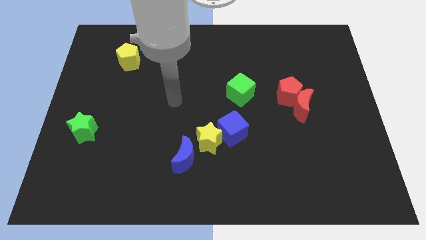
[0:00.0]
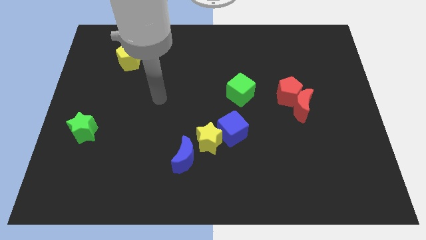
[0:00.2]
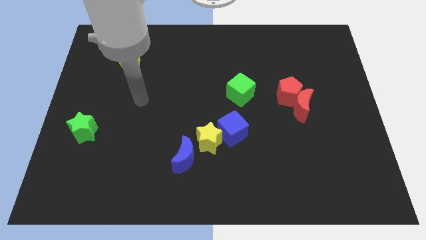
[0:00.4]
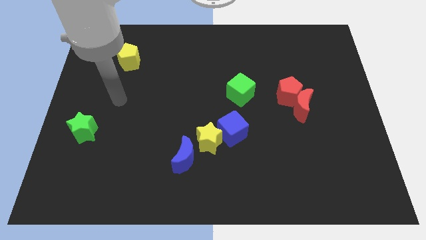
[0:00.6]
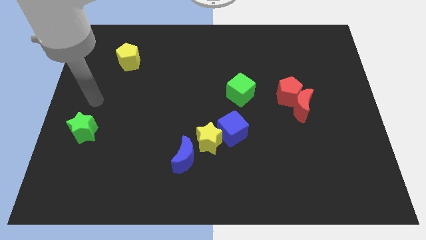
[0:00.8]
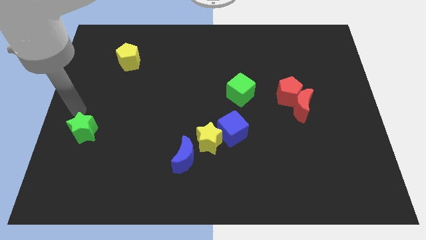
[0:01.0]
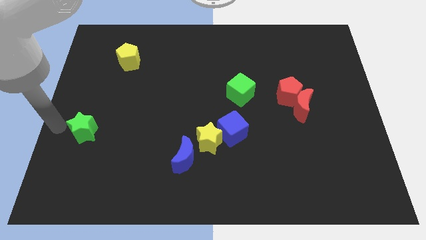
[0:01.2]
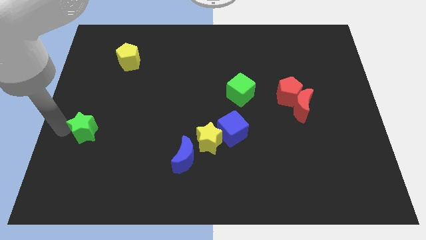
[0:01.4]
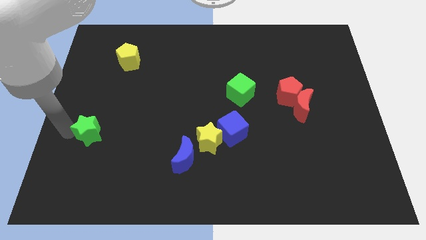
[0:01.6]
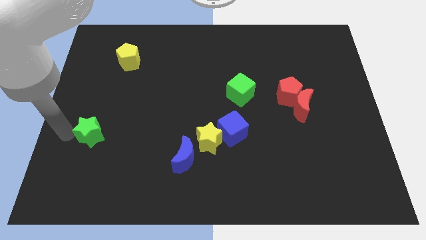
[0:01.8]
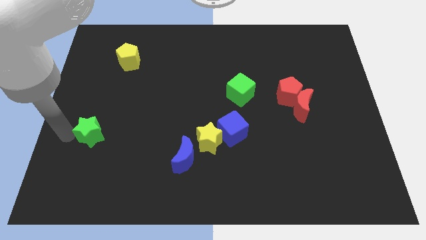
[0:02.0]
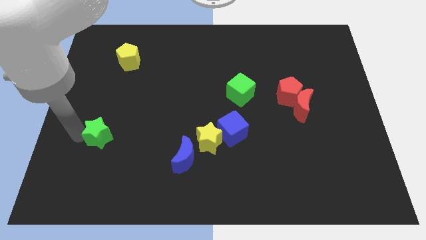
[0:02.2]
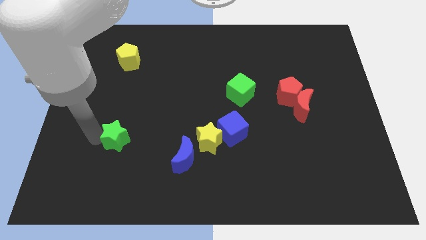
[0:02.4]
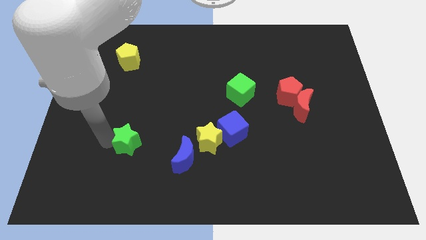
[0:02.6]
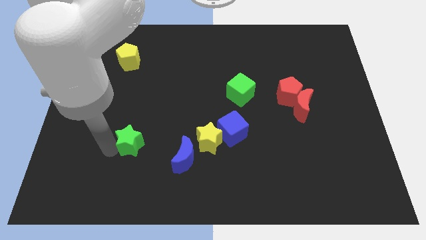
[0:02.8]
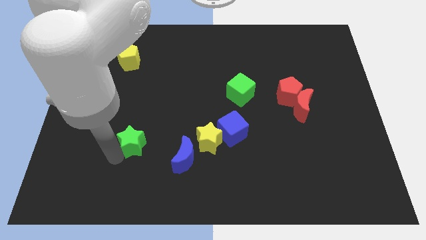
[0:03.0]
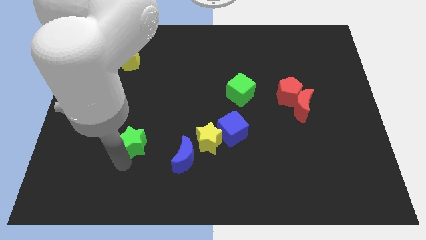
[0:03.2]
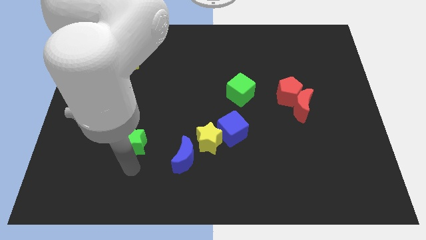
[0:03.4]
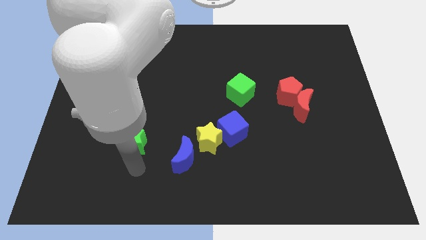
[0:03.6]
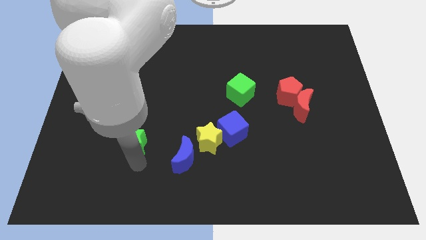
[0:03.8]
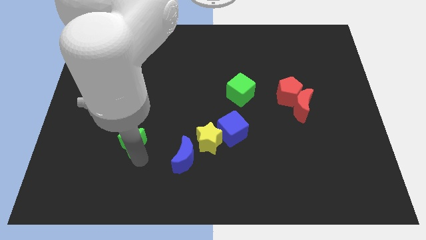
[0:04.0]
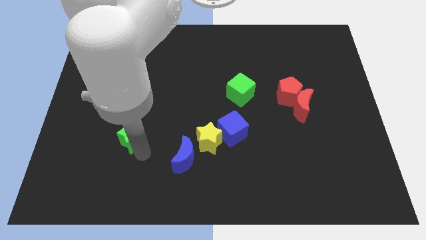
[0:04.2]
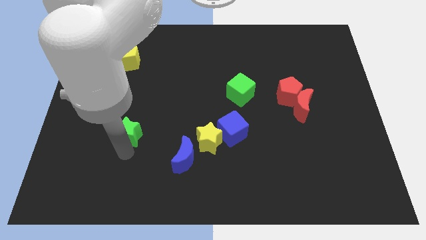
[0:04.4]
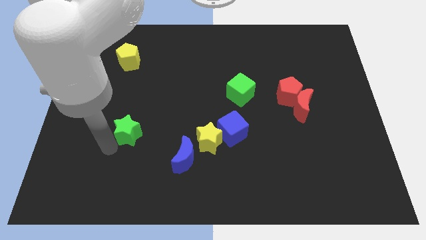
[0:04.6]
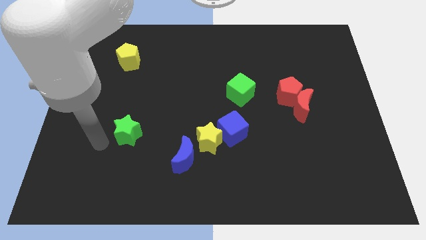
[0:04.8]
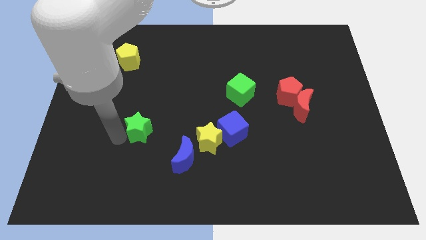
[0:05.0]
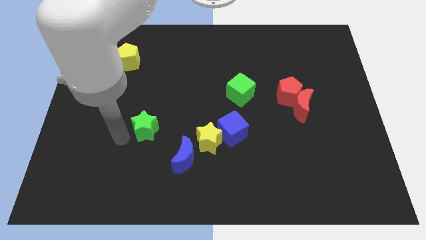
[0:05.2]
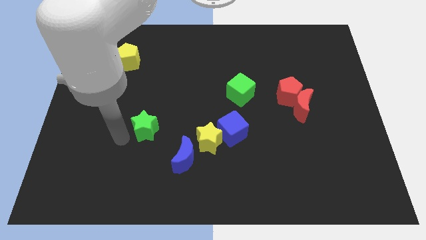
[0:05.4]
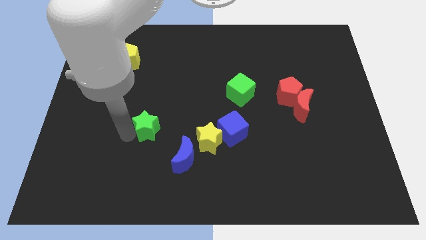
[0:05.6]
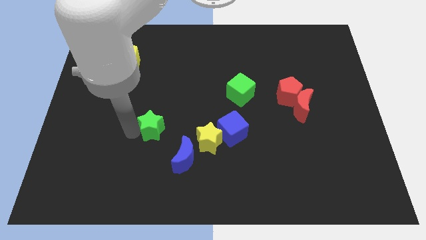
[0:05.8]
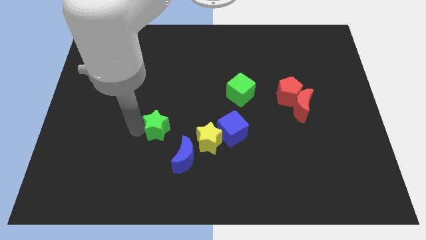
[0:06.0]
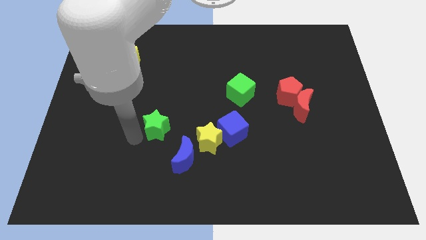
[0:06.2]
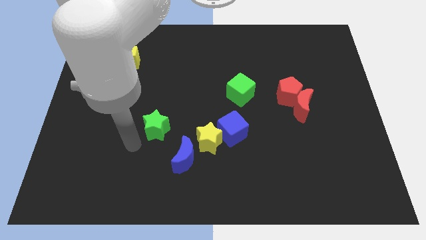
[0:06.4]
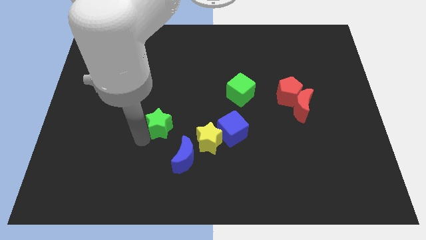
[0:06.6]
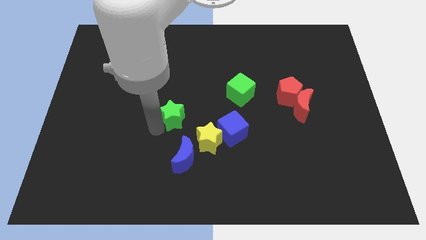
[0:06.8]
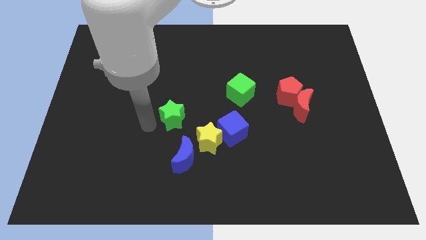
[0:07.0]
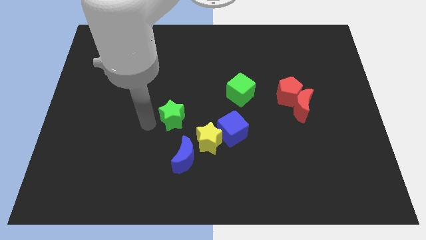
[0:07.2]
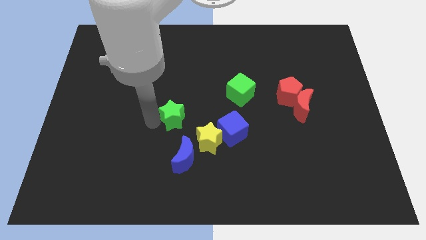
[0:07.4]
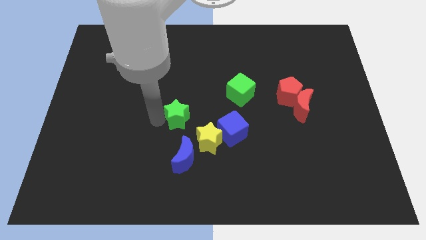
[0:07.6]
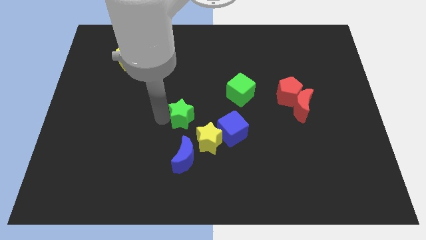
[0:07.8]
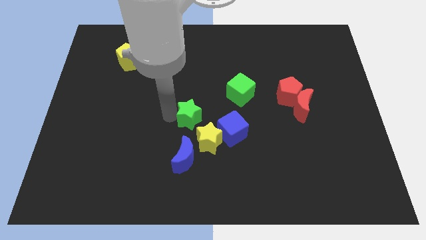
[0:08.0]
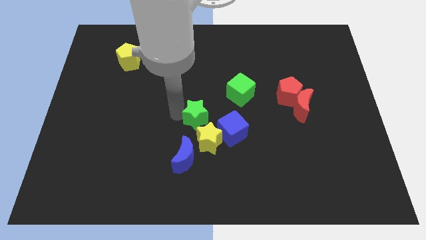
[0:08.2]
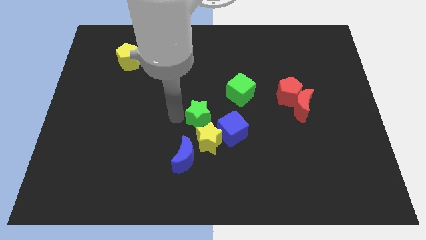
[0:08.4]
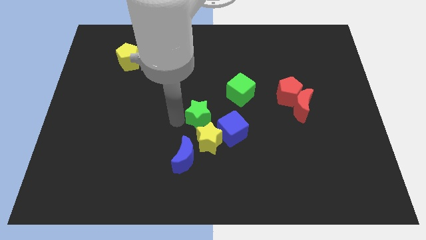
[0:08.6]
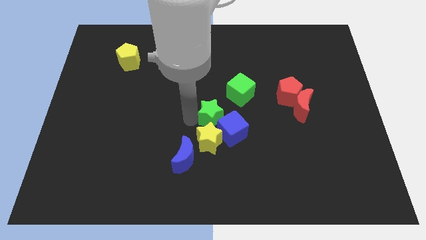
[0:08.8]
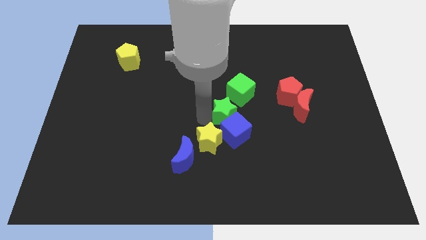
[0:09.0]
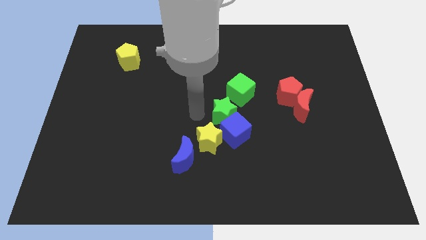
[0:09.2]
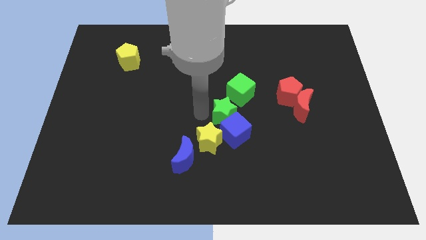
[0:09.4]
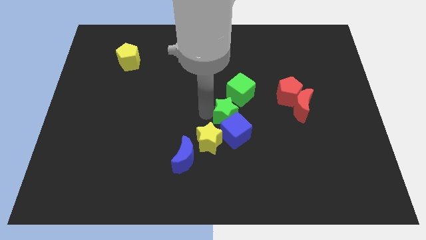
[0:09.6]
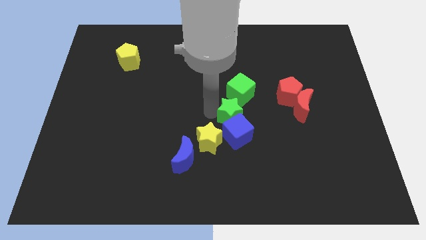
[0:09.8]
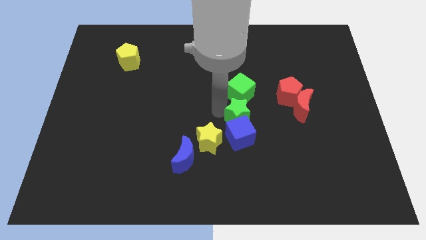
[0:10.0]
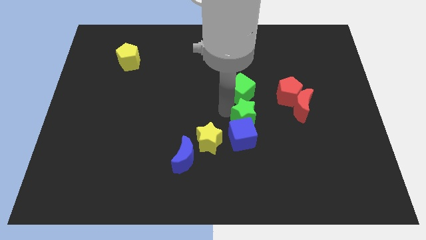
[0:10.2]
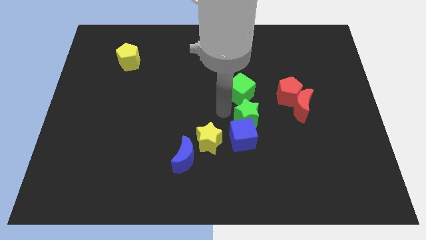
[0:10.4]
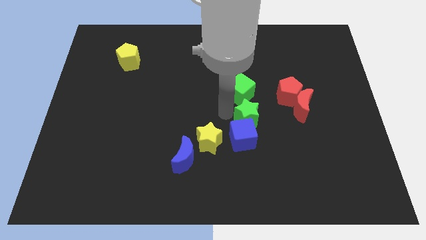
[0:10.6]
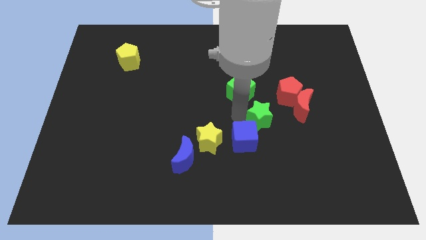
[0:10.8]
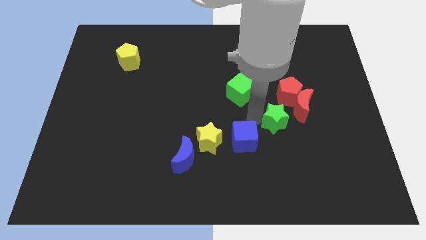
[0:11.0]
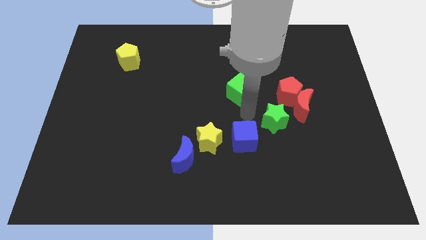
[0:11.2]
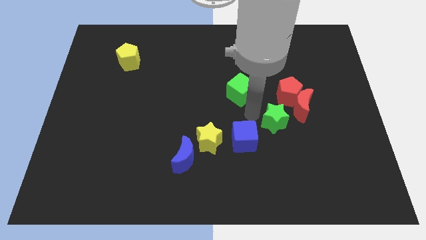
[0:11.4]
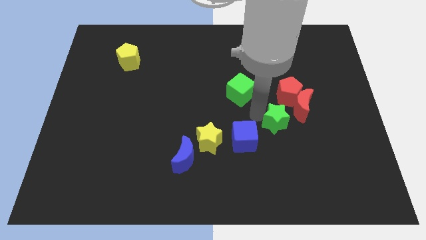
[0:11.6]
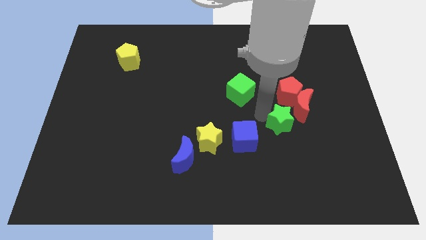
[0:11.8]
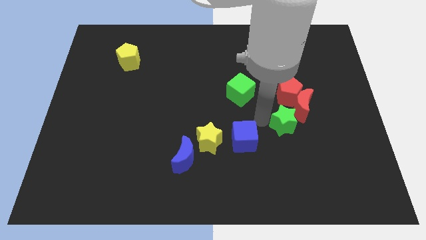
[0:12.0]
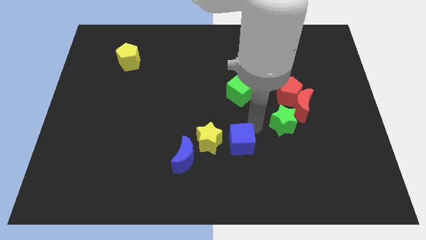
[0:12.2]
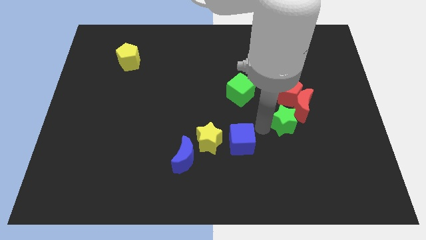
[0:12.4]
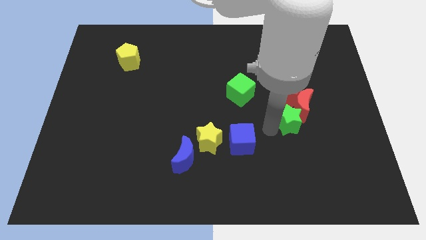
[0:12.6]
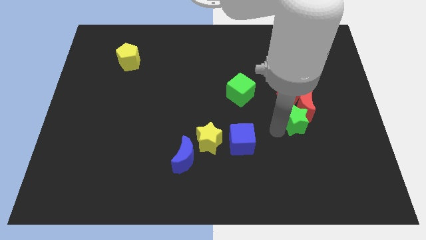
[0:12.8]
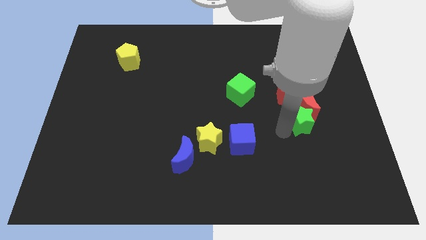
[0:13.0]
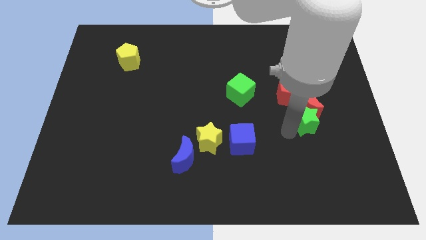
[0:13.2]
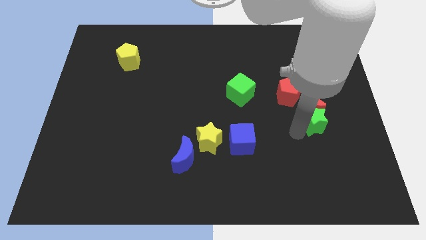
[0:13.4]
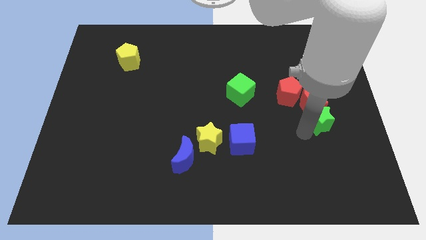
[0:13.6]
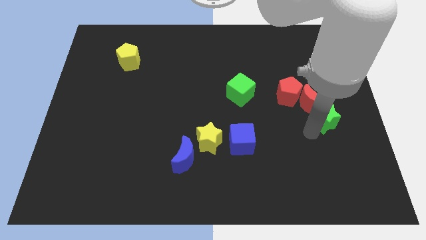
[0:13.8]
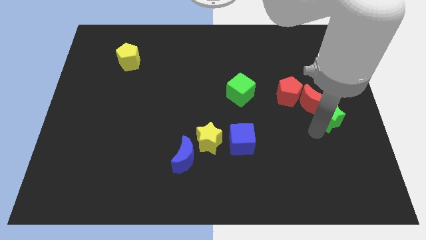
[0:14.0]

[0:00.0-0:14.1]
move the green star to the center right
